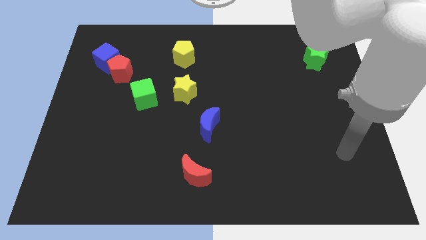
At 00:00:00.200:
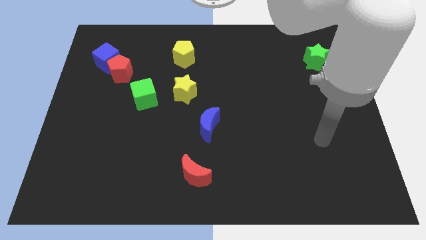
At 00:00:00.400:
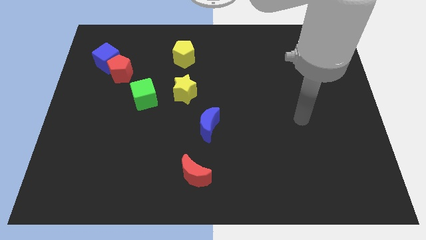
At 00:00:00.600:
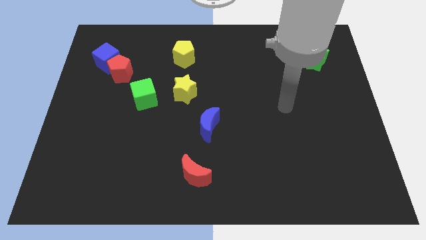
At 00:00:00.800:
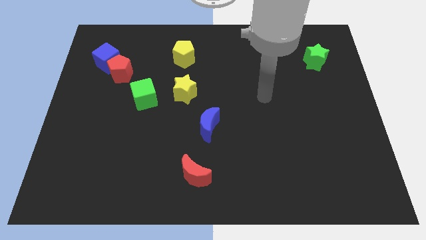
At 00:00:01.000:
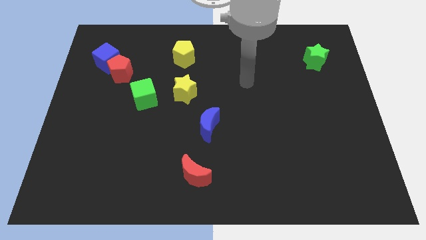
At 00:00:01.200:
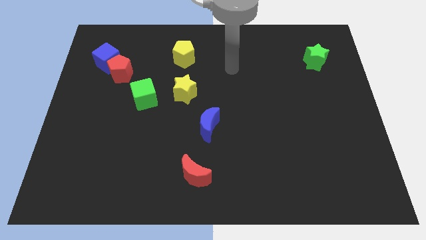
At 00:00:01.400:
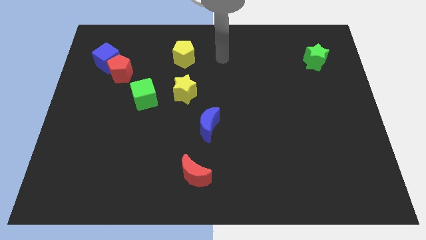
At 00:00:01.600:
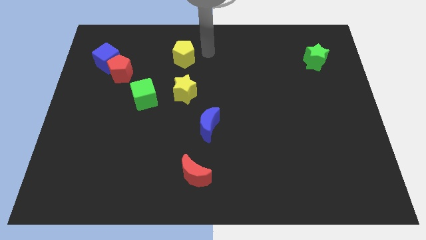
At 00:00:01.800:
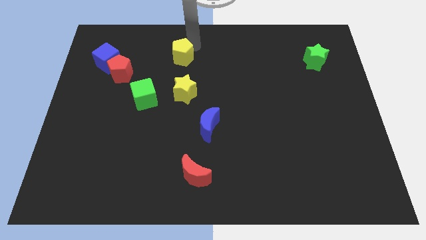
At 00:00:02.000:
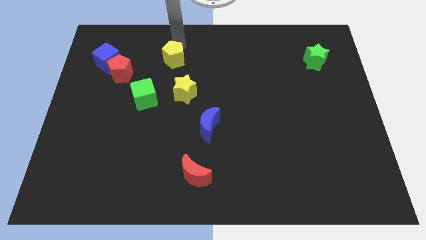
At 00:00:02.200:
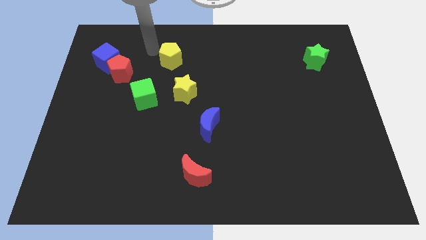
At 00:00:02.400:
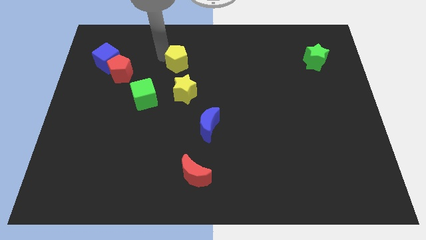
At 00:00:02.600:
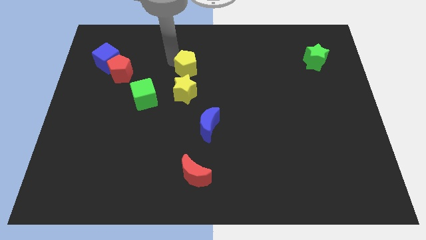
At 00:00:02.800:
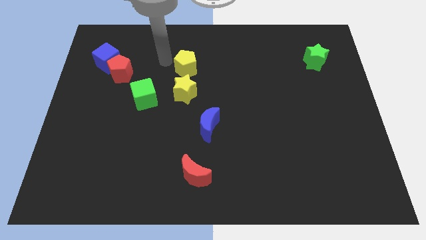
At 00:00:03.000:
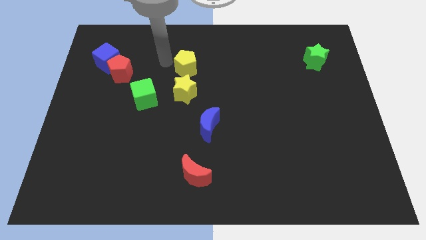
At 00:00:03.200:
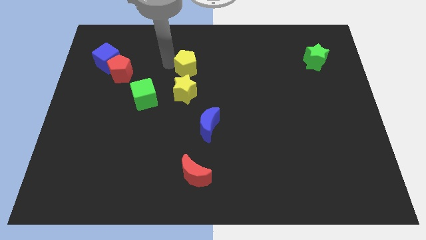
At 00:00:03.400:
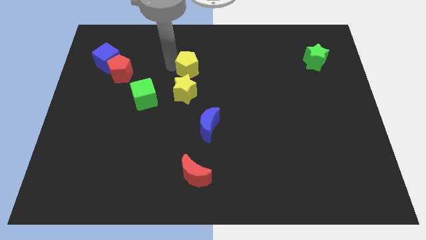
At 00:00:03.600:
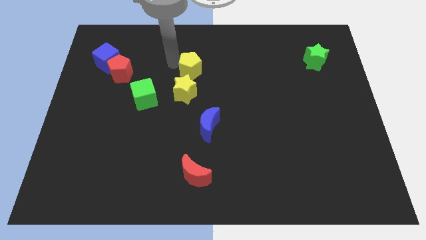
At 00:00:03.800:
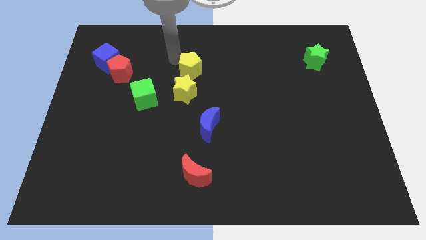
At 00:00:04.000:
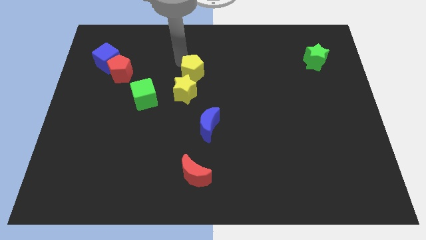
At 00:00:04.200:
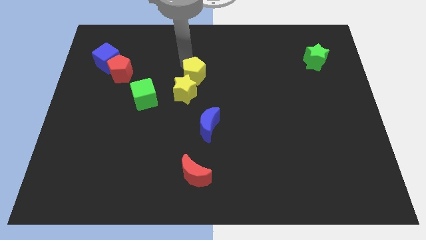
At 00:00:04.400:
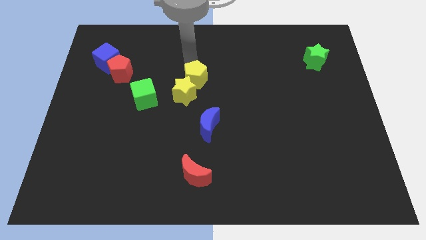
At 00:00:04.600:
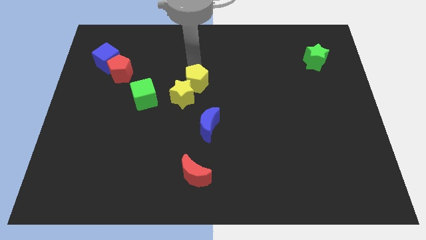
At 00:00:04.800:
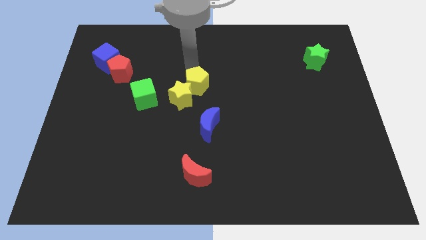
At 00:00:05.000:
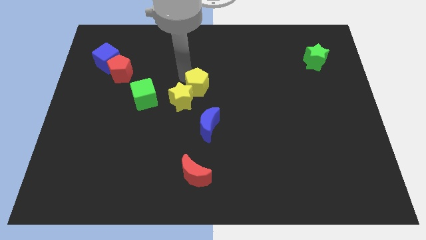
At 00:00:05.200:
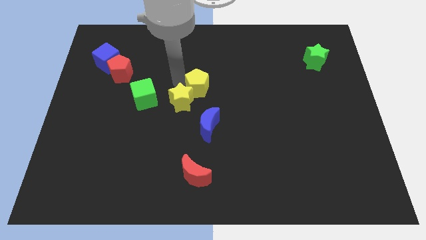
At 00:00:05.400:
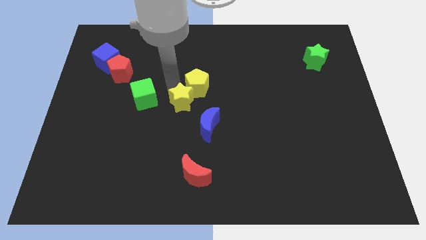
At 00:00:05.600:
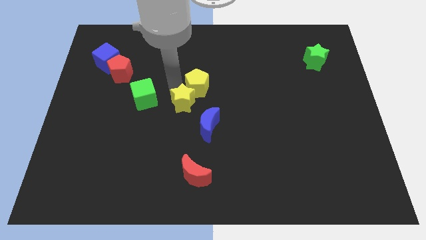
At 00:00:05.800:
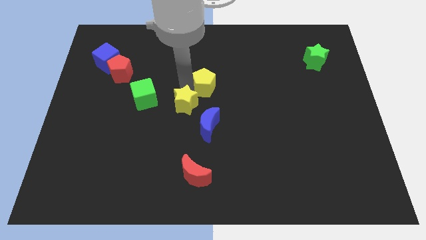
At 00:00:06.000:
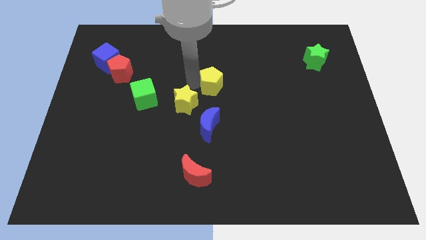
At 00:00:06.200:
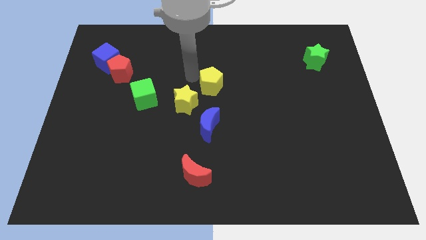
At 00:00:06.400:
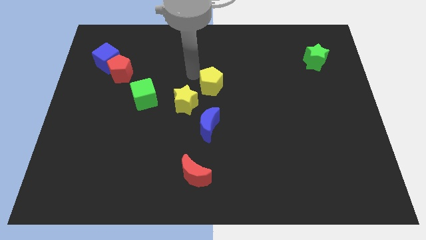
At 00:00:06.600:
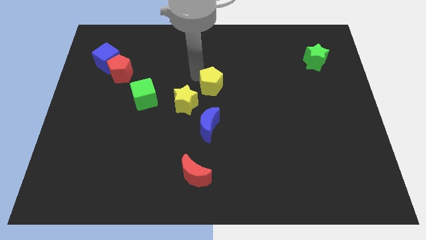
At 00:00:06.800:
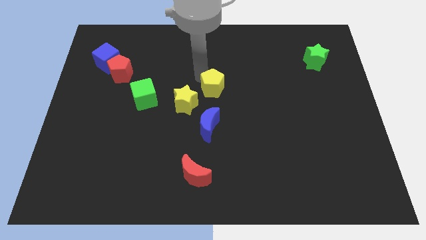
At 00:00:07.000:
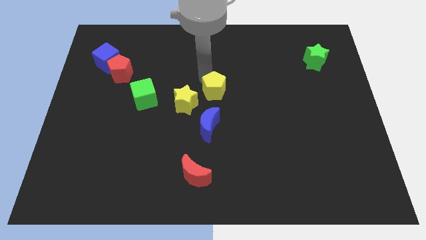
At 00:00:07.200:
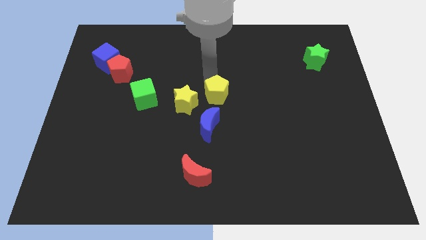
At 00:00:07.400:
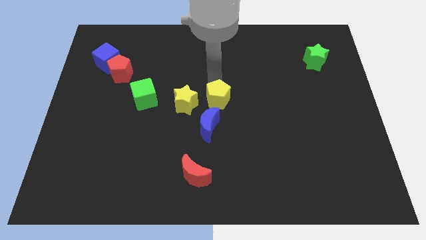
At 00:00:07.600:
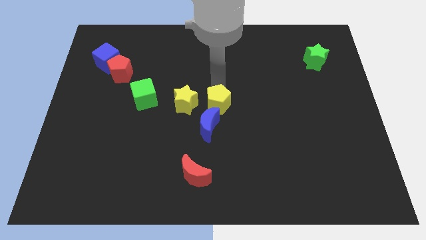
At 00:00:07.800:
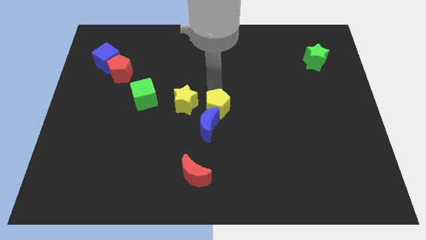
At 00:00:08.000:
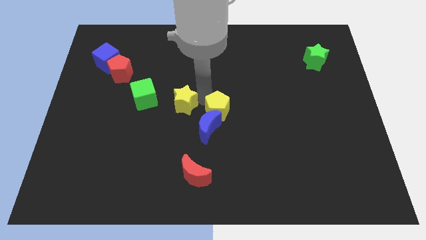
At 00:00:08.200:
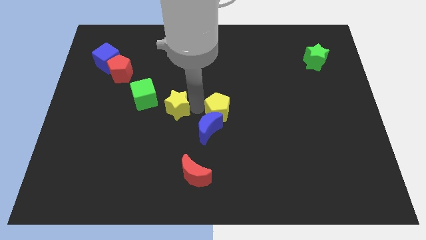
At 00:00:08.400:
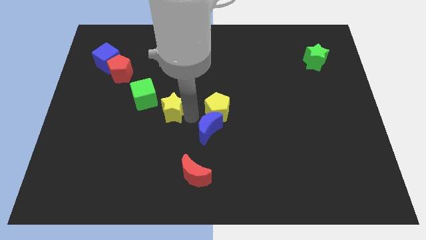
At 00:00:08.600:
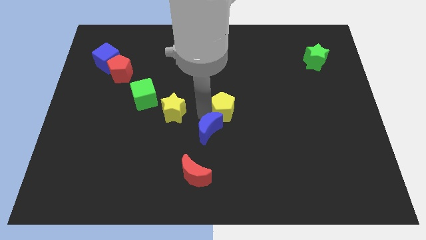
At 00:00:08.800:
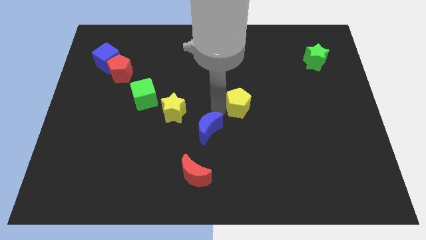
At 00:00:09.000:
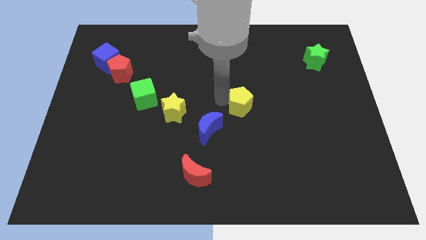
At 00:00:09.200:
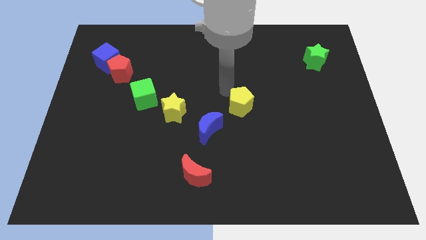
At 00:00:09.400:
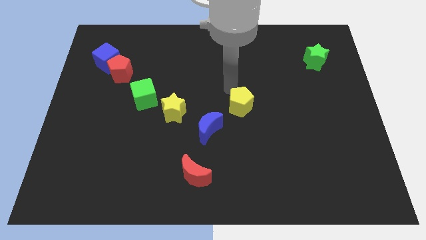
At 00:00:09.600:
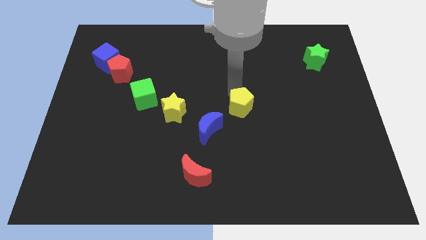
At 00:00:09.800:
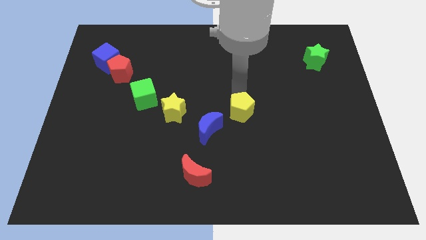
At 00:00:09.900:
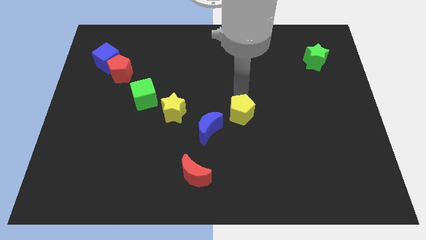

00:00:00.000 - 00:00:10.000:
slide the yellow pentagon right of the blue moon

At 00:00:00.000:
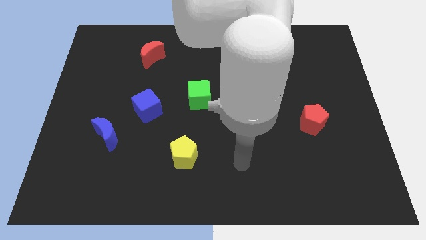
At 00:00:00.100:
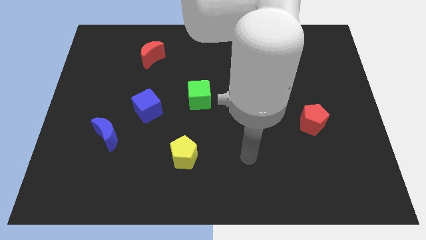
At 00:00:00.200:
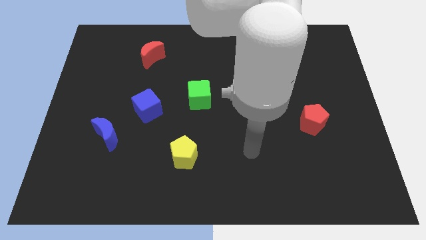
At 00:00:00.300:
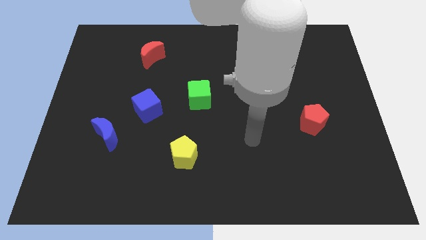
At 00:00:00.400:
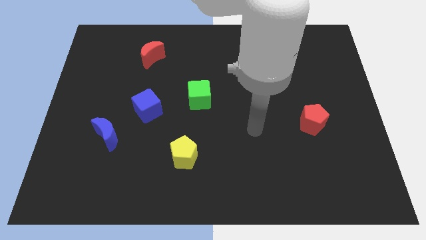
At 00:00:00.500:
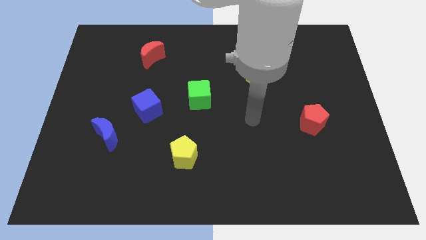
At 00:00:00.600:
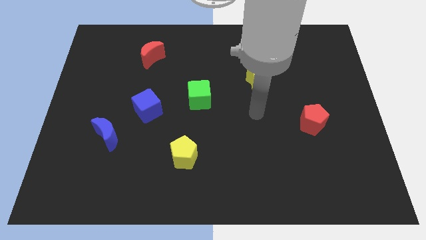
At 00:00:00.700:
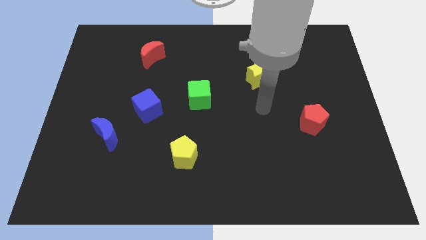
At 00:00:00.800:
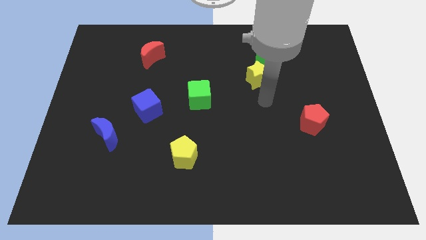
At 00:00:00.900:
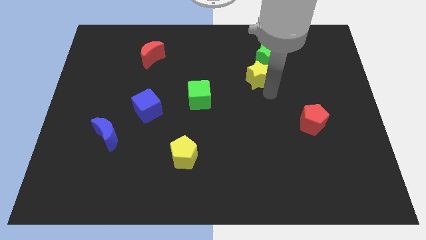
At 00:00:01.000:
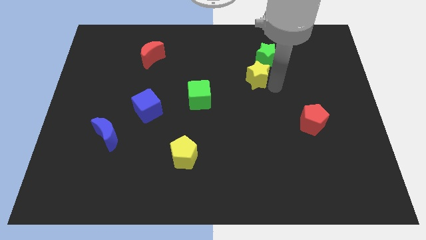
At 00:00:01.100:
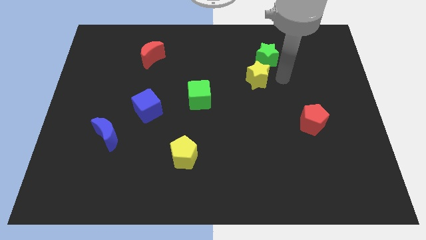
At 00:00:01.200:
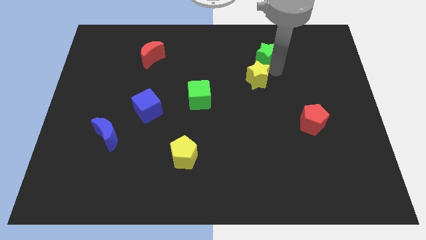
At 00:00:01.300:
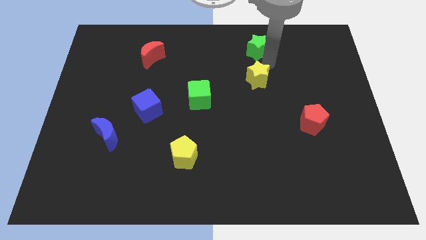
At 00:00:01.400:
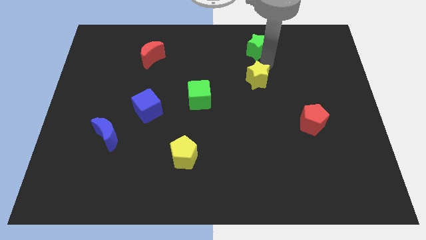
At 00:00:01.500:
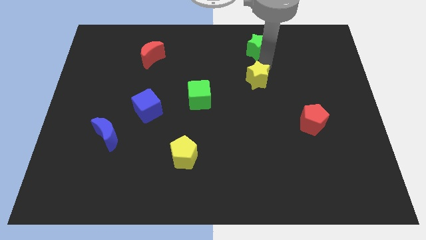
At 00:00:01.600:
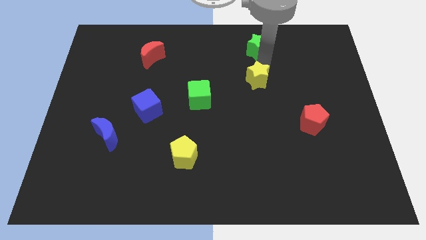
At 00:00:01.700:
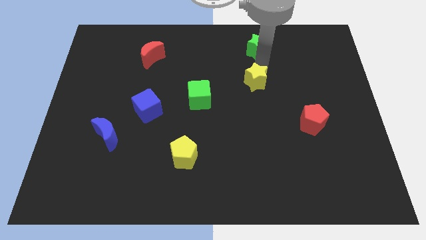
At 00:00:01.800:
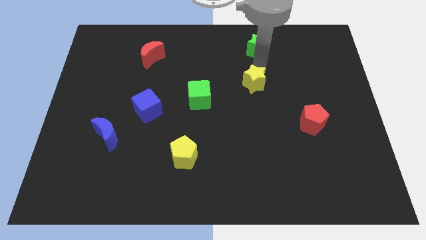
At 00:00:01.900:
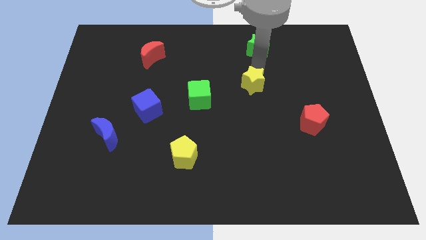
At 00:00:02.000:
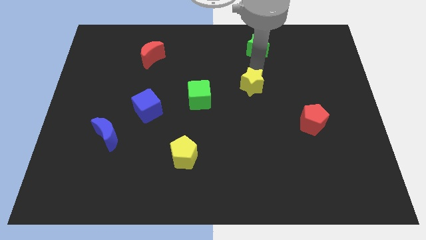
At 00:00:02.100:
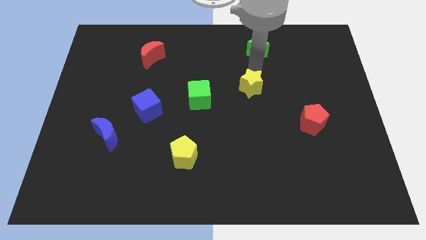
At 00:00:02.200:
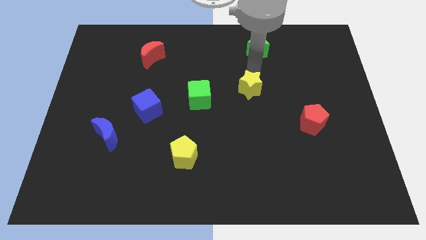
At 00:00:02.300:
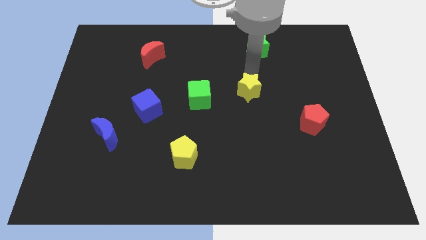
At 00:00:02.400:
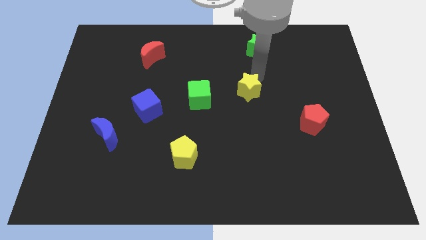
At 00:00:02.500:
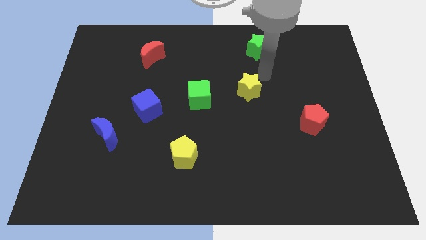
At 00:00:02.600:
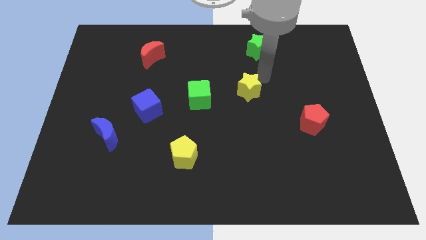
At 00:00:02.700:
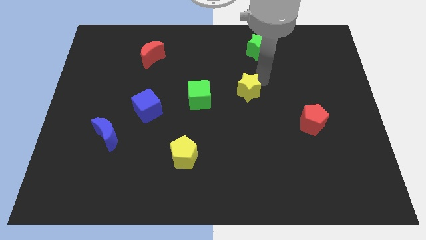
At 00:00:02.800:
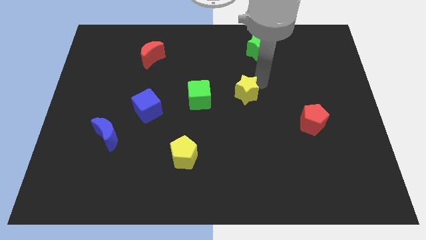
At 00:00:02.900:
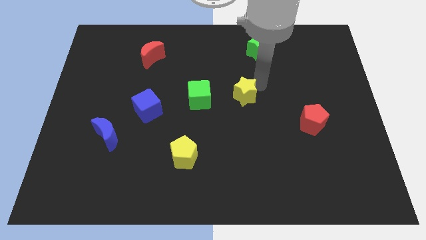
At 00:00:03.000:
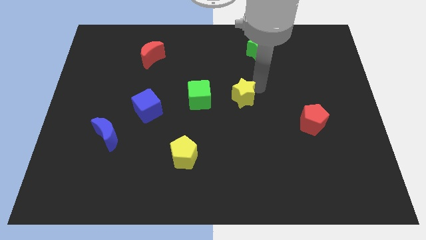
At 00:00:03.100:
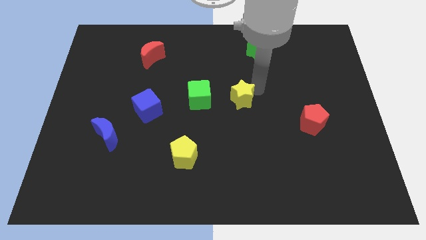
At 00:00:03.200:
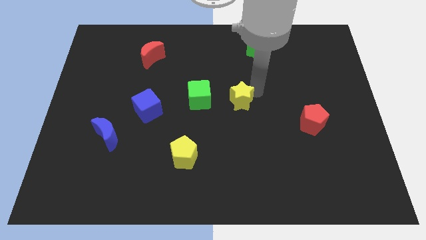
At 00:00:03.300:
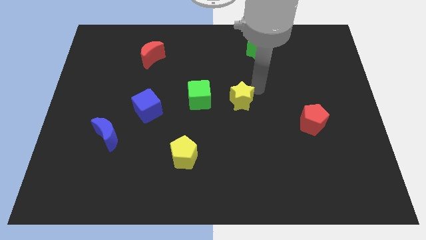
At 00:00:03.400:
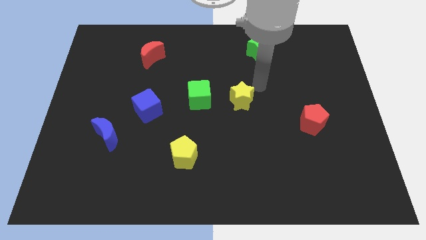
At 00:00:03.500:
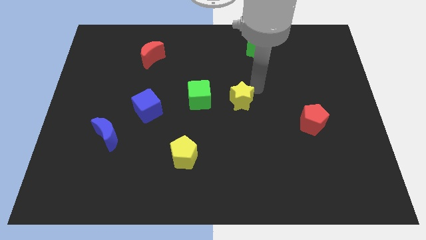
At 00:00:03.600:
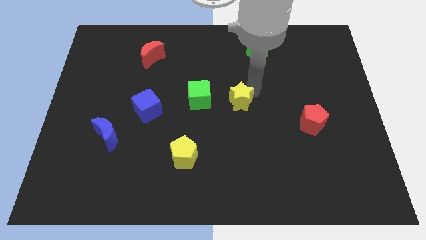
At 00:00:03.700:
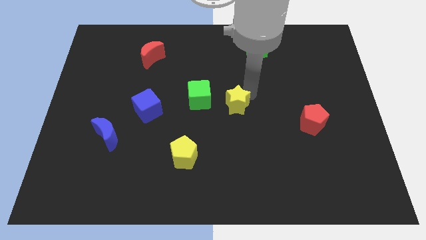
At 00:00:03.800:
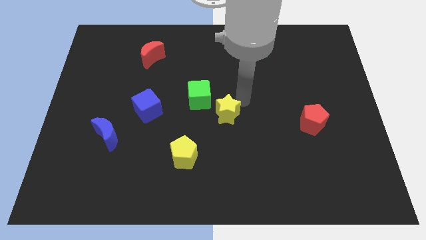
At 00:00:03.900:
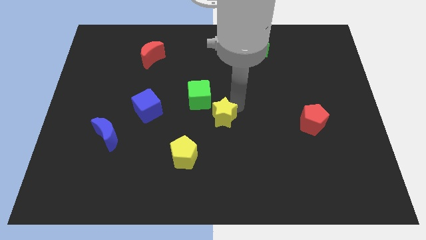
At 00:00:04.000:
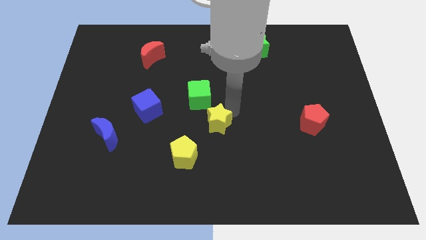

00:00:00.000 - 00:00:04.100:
push the yellow star to the bottom side of the green cube
